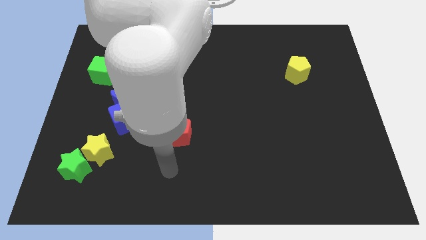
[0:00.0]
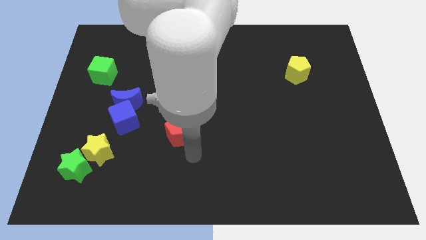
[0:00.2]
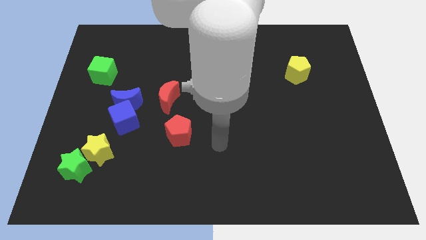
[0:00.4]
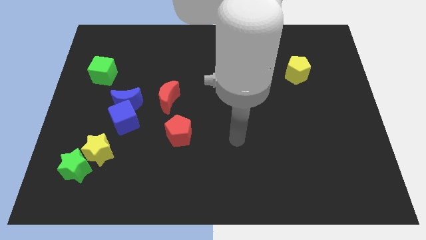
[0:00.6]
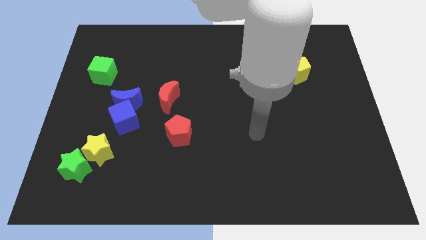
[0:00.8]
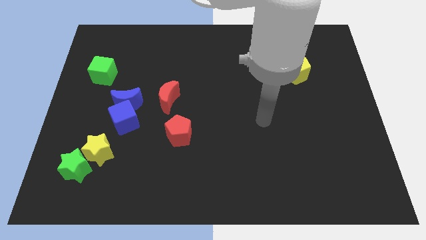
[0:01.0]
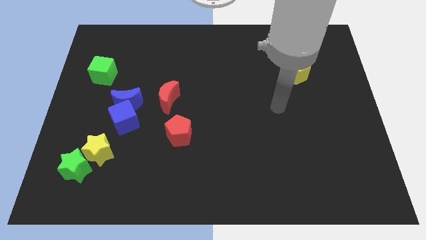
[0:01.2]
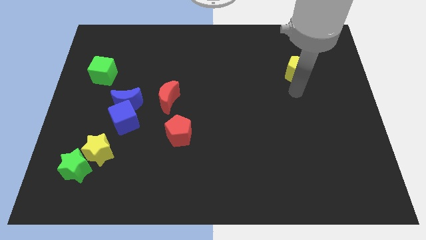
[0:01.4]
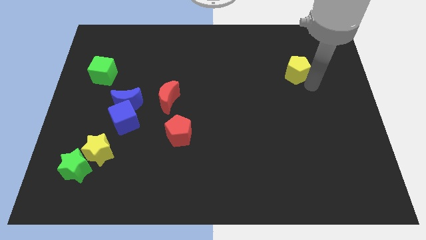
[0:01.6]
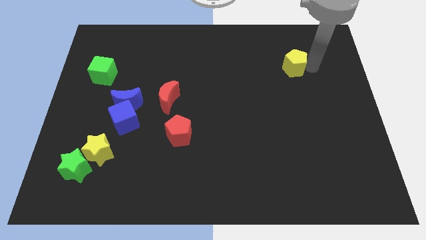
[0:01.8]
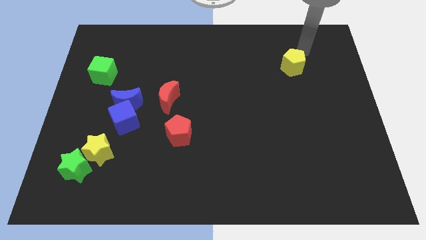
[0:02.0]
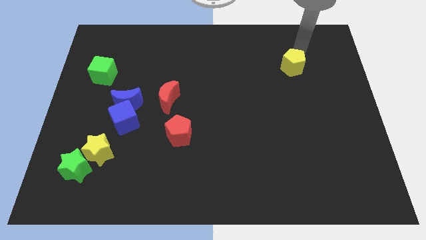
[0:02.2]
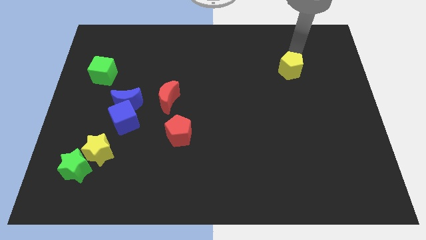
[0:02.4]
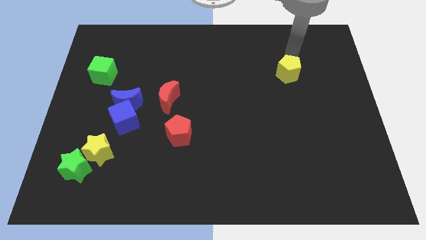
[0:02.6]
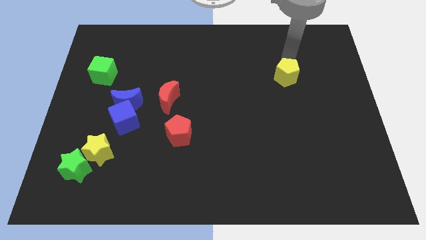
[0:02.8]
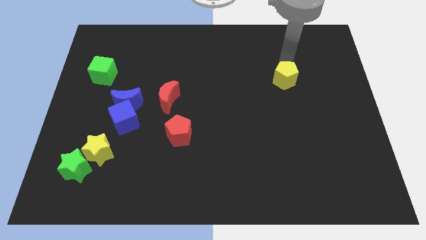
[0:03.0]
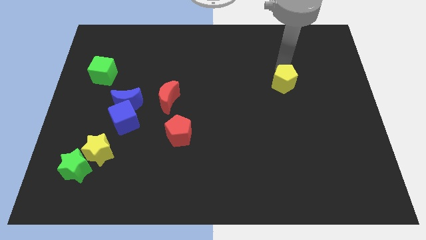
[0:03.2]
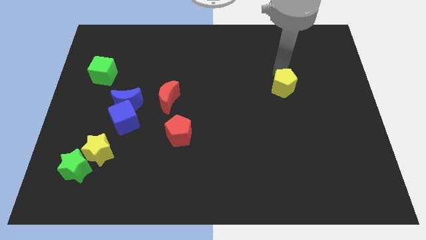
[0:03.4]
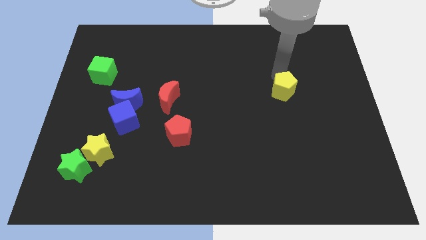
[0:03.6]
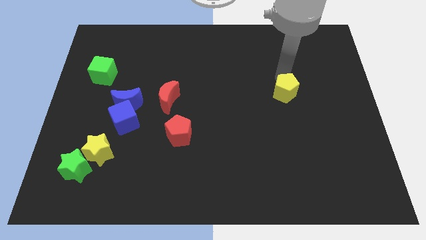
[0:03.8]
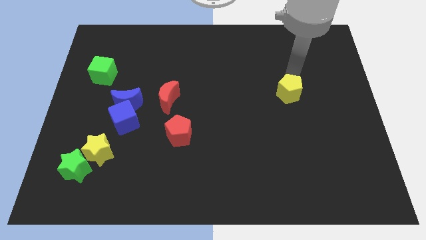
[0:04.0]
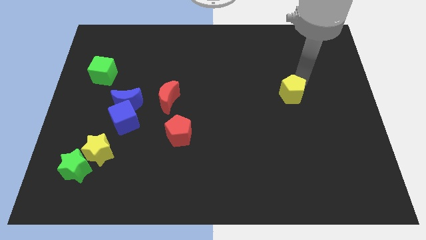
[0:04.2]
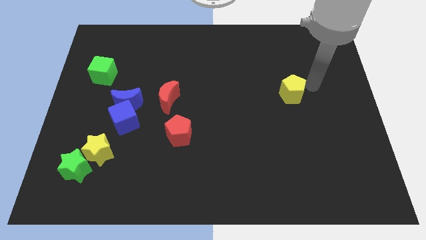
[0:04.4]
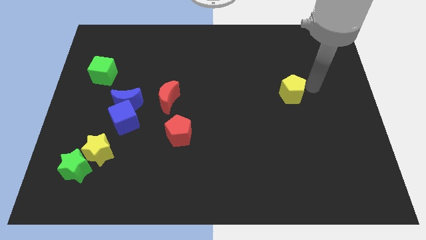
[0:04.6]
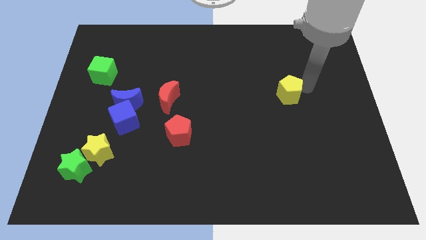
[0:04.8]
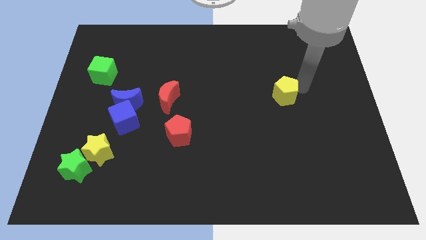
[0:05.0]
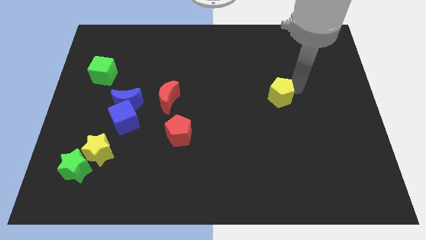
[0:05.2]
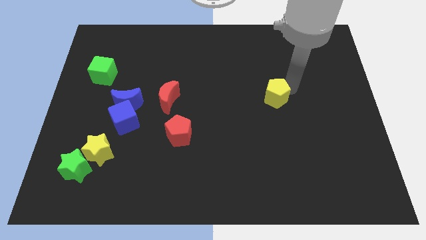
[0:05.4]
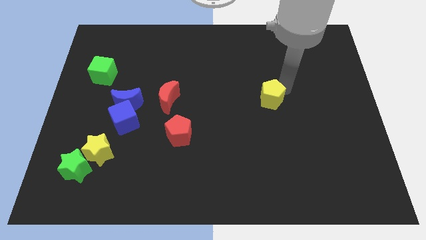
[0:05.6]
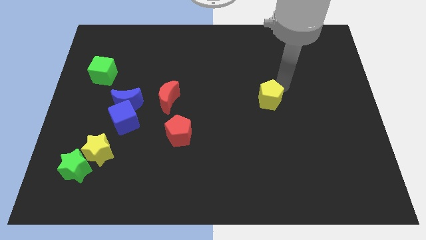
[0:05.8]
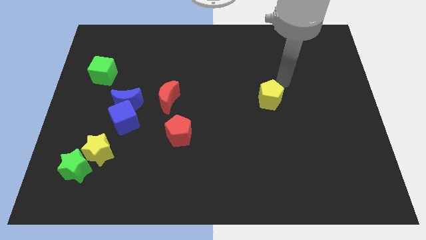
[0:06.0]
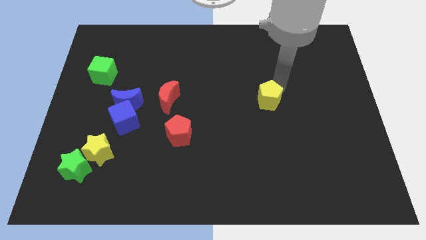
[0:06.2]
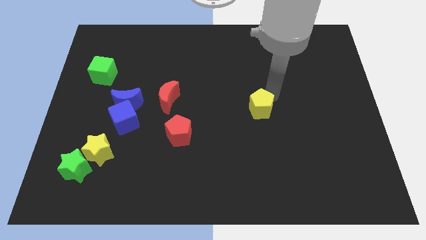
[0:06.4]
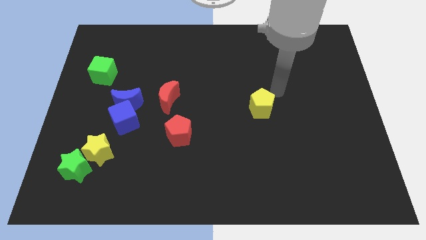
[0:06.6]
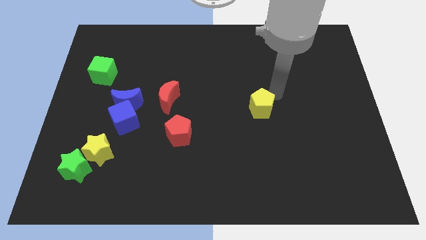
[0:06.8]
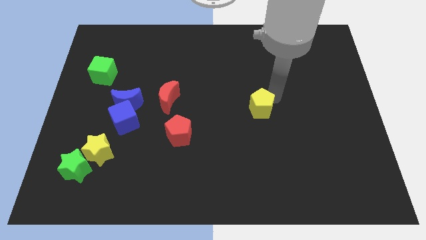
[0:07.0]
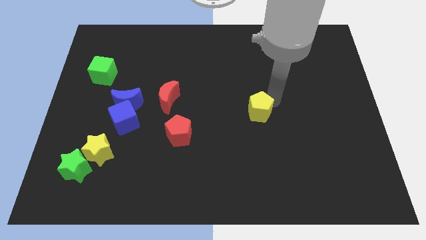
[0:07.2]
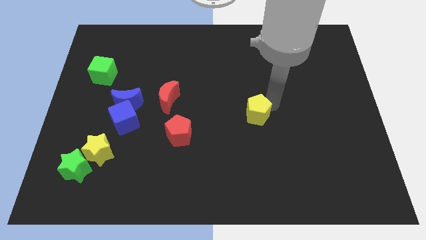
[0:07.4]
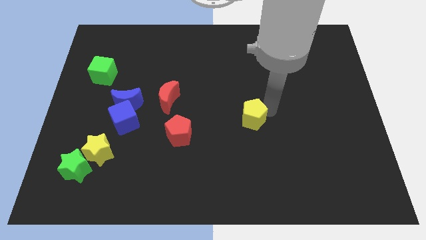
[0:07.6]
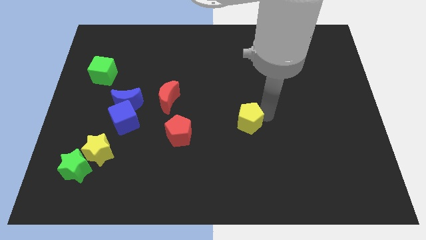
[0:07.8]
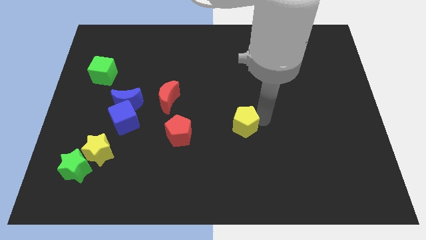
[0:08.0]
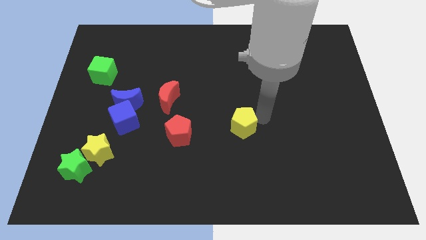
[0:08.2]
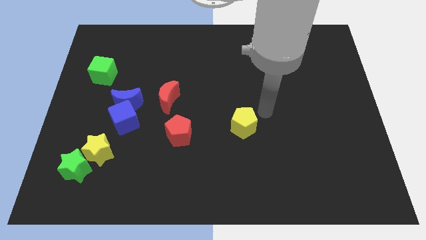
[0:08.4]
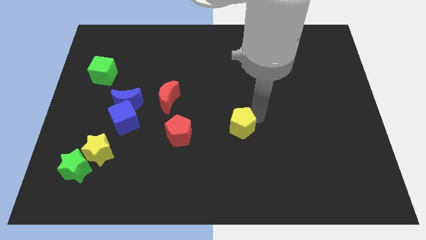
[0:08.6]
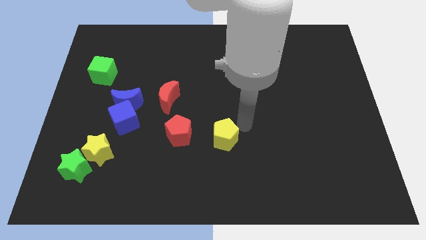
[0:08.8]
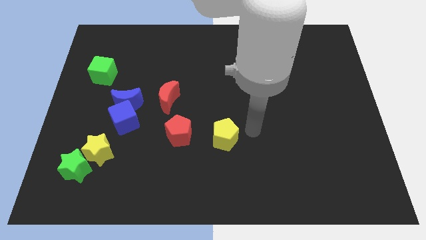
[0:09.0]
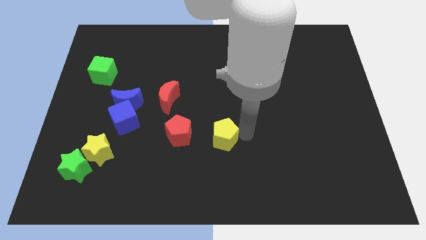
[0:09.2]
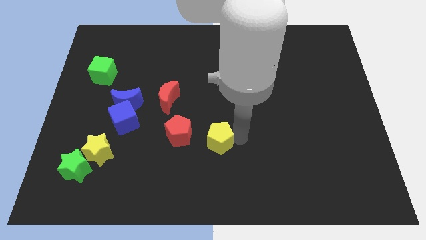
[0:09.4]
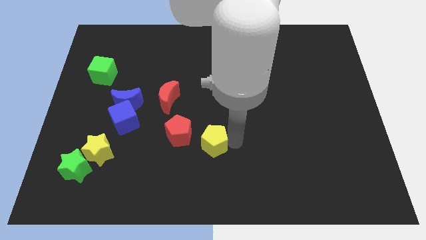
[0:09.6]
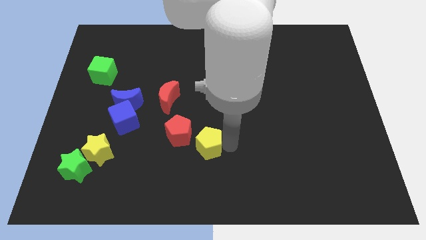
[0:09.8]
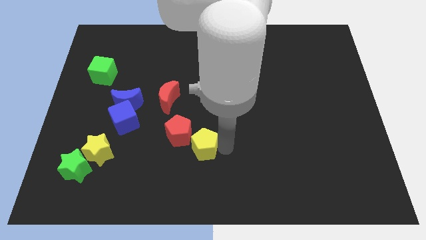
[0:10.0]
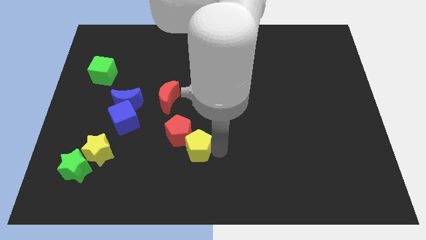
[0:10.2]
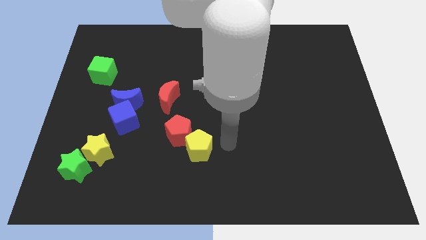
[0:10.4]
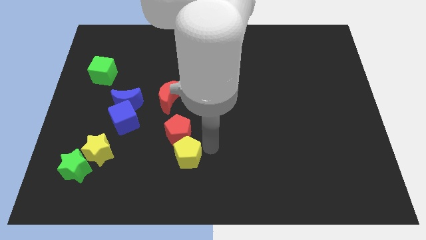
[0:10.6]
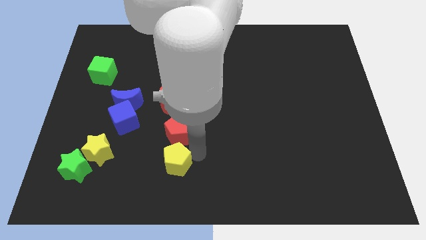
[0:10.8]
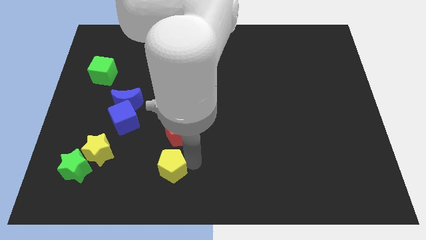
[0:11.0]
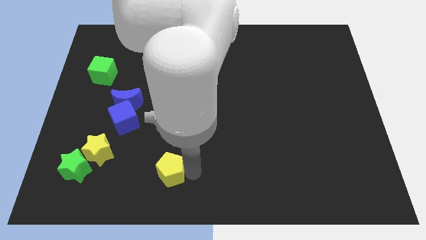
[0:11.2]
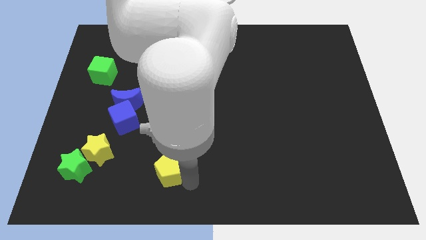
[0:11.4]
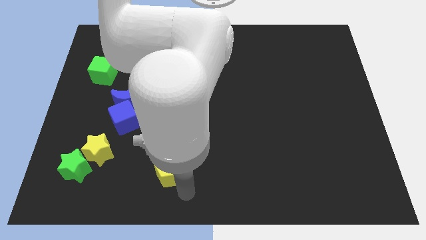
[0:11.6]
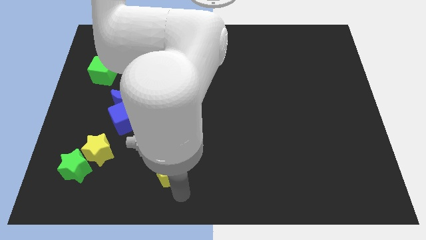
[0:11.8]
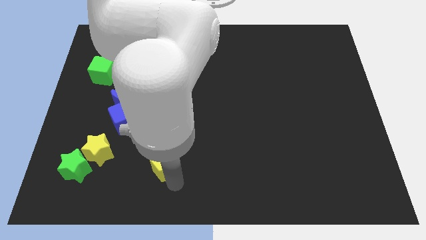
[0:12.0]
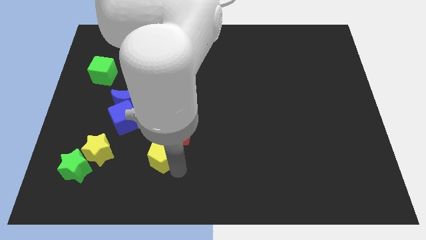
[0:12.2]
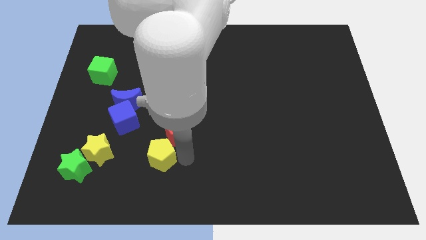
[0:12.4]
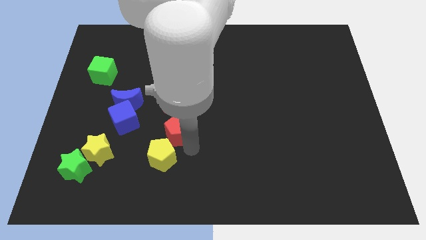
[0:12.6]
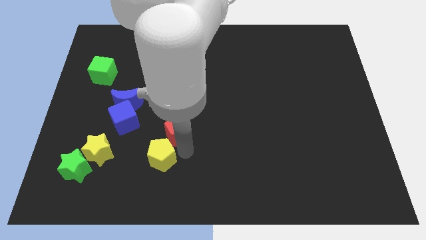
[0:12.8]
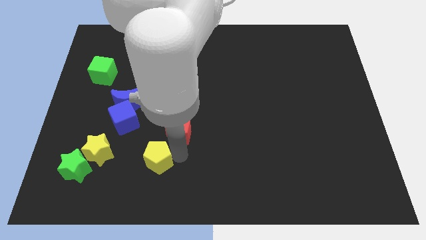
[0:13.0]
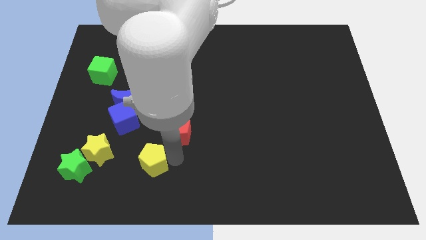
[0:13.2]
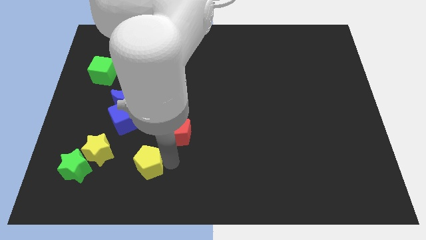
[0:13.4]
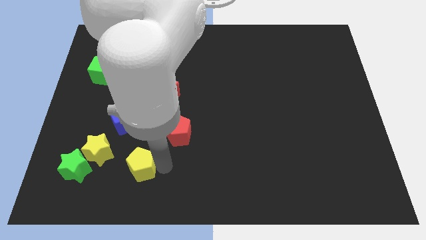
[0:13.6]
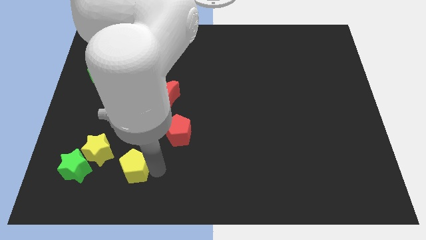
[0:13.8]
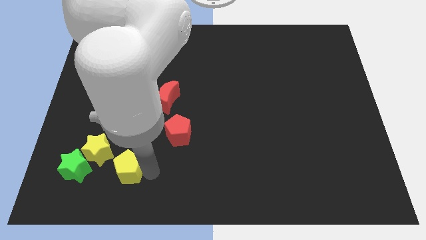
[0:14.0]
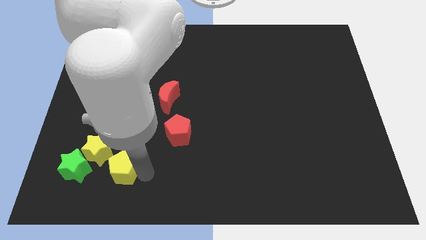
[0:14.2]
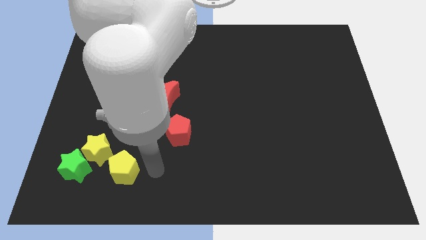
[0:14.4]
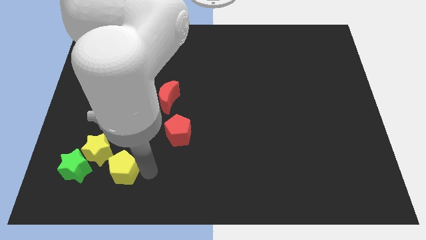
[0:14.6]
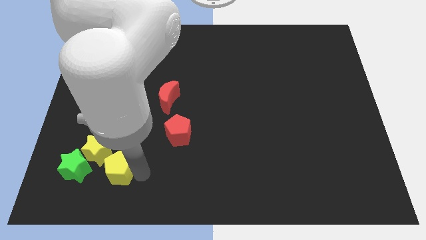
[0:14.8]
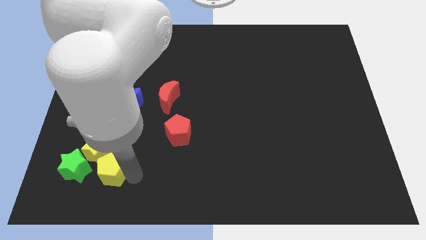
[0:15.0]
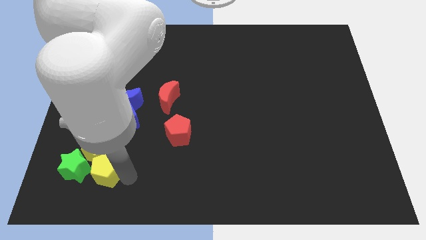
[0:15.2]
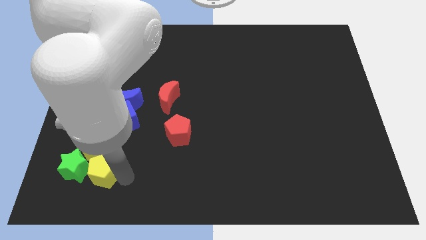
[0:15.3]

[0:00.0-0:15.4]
put the yellow pentagon next to the green star
